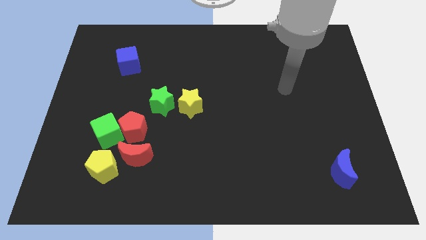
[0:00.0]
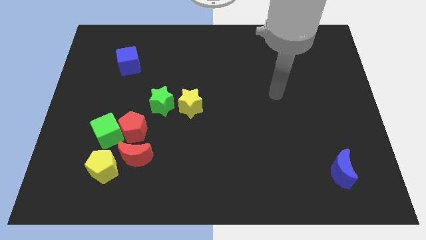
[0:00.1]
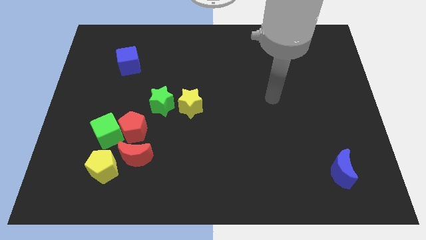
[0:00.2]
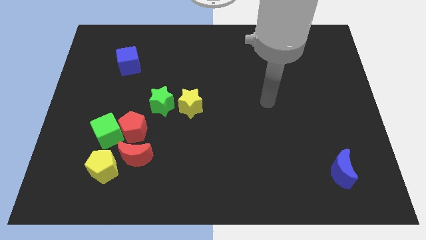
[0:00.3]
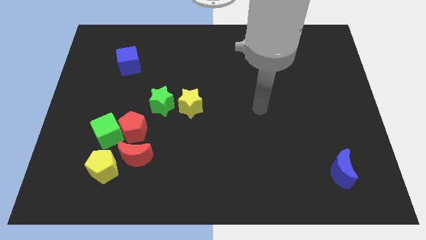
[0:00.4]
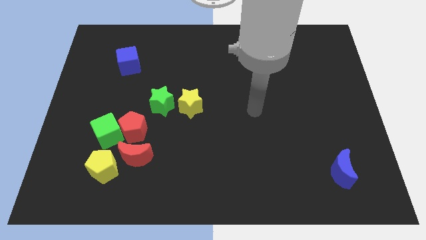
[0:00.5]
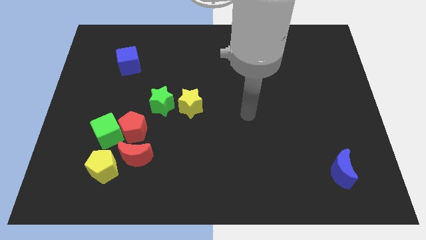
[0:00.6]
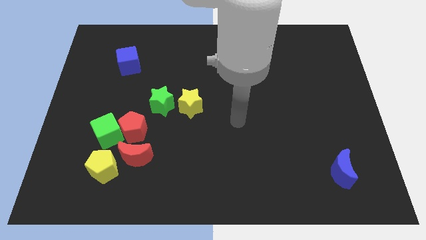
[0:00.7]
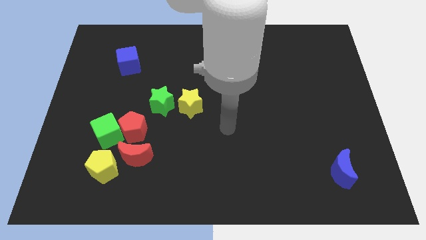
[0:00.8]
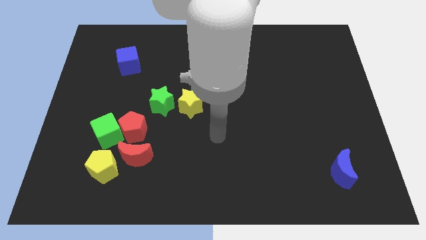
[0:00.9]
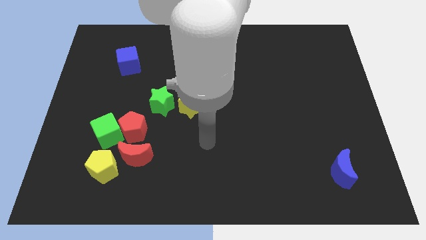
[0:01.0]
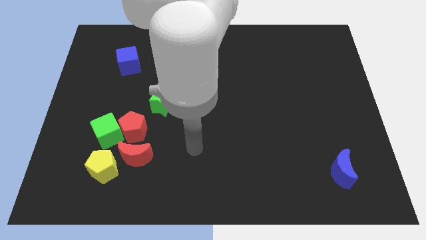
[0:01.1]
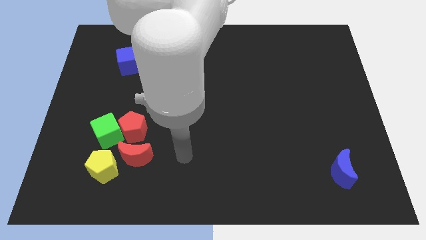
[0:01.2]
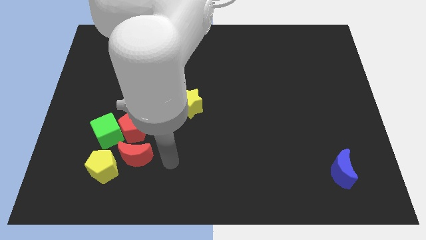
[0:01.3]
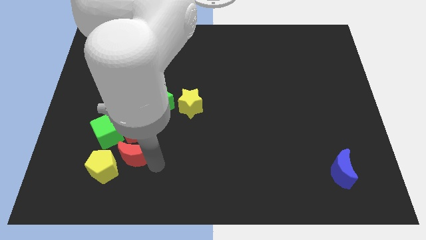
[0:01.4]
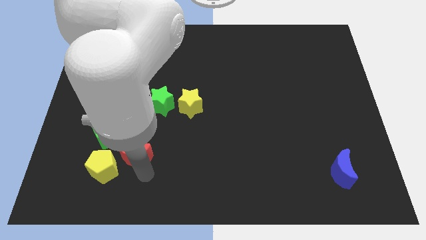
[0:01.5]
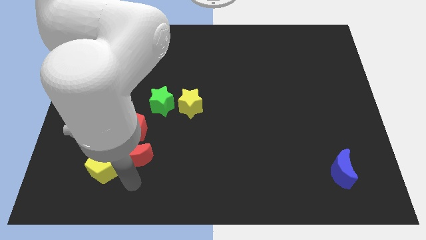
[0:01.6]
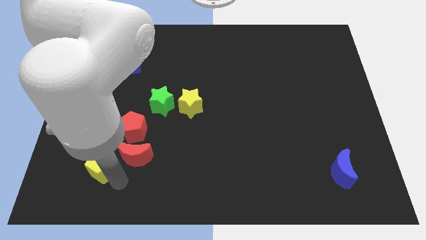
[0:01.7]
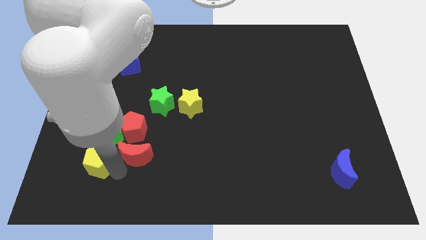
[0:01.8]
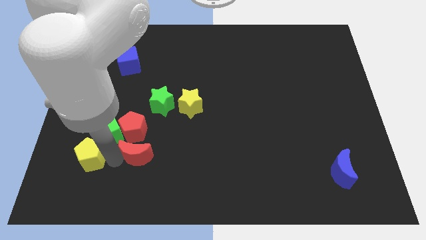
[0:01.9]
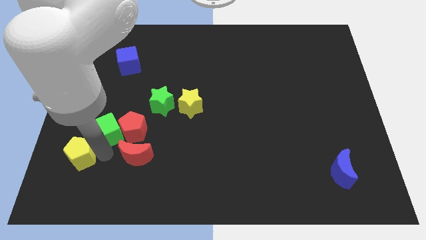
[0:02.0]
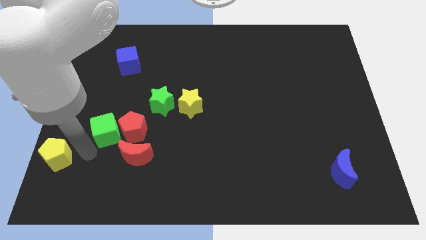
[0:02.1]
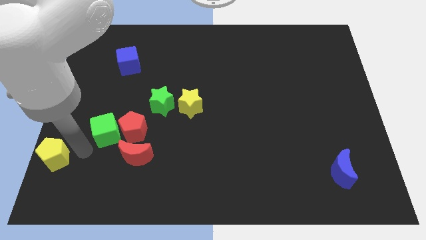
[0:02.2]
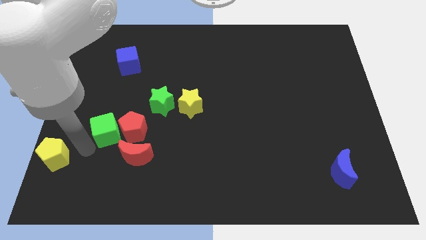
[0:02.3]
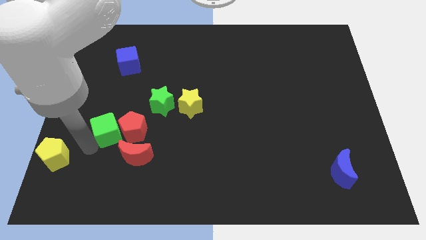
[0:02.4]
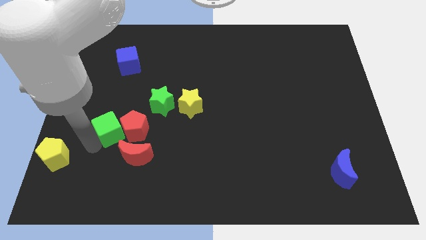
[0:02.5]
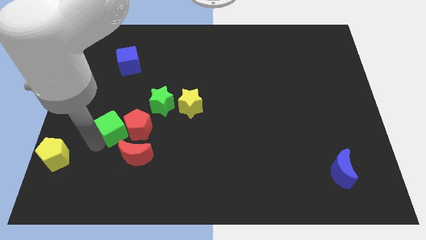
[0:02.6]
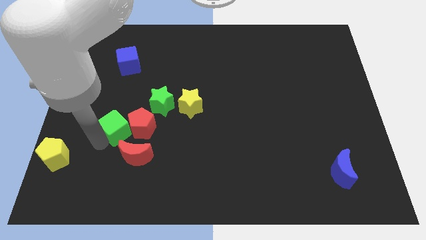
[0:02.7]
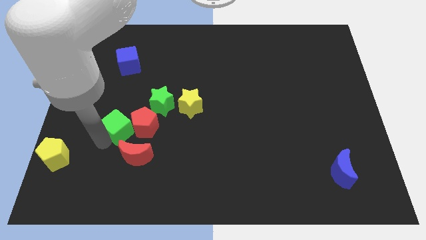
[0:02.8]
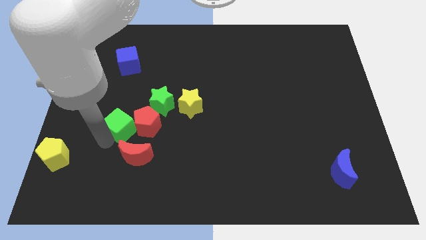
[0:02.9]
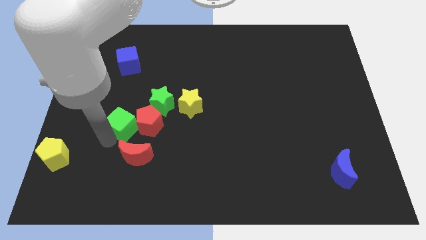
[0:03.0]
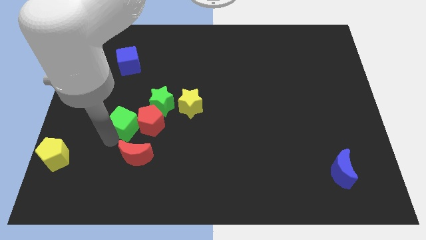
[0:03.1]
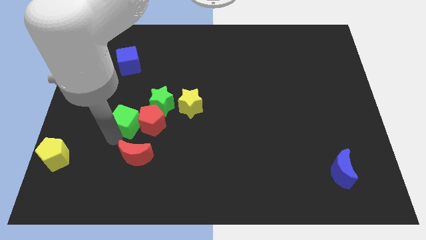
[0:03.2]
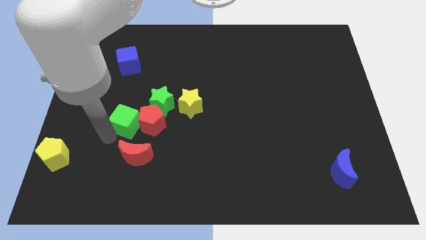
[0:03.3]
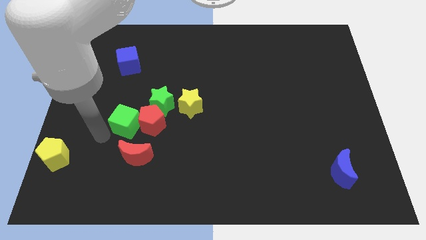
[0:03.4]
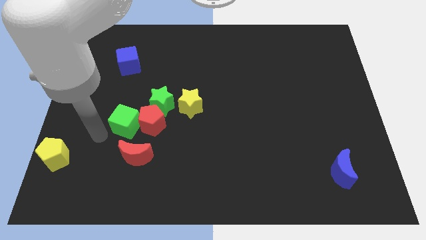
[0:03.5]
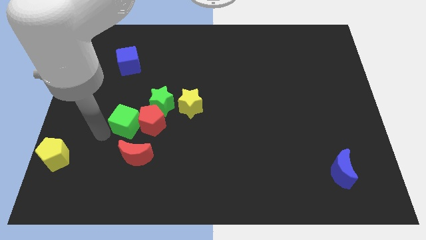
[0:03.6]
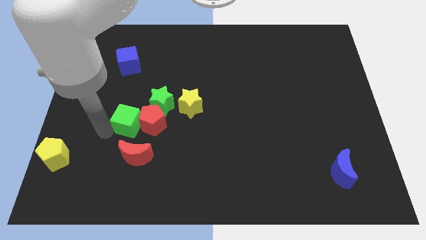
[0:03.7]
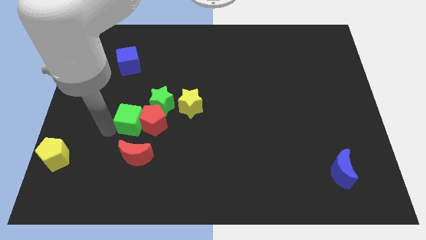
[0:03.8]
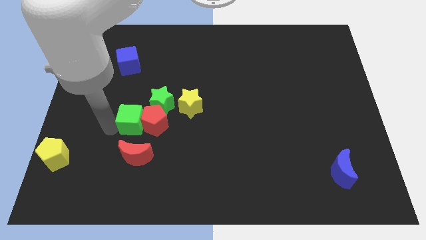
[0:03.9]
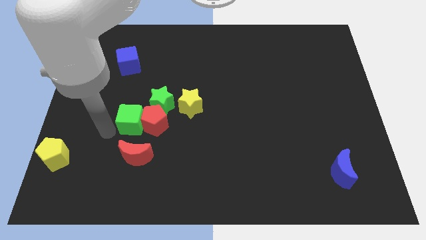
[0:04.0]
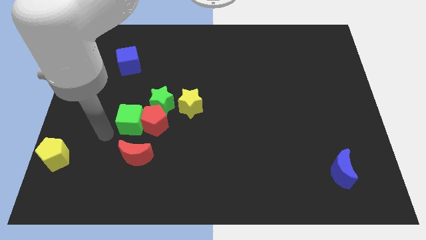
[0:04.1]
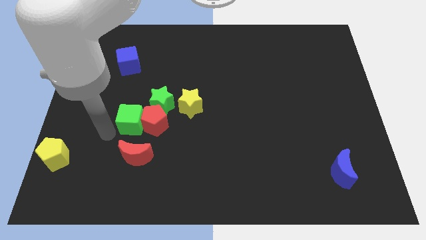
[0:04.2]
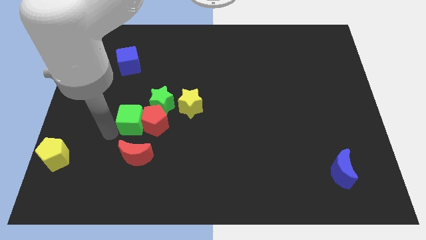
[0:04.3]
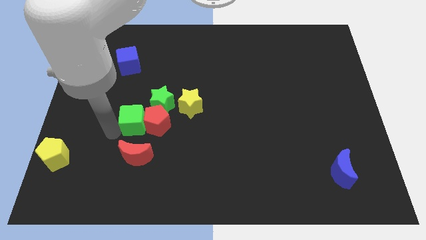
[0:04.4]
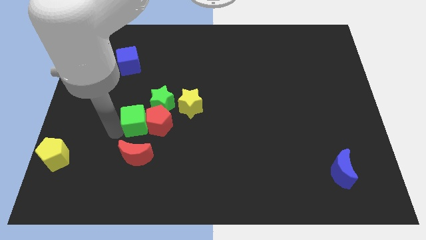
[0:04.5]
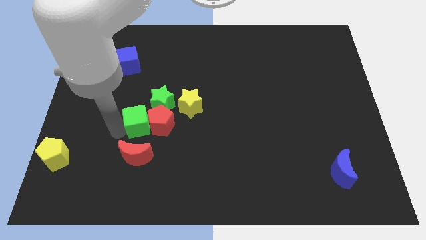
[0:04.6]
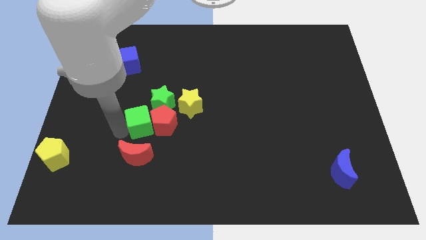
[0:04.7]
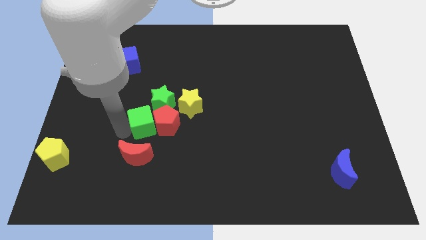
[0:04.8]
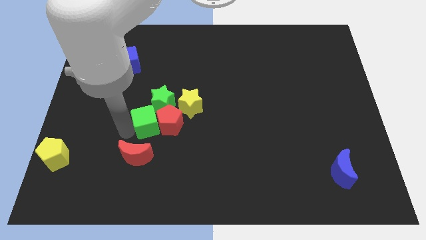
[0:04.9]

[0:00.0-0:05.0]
put the green cube diagonally up and to the right of the red moon

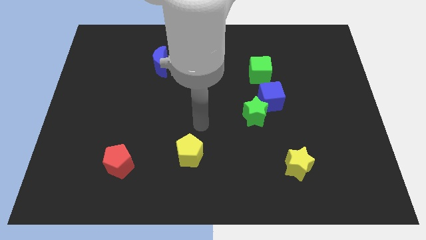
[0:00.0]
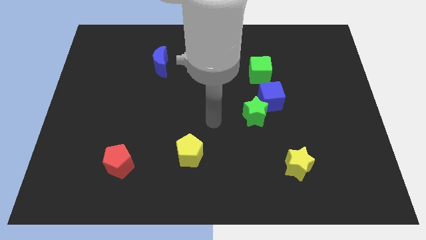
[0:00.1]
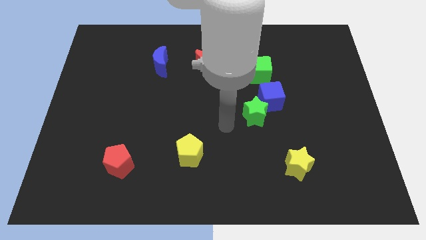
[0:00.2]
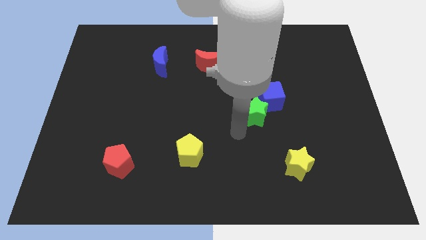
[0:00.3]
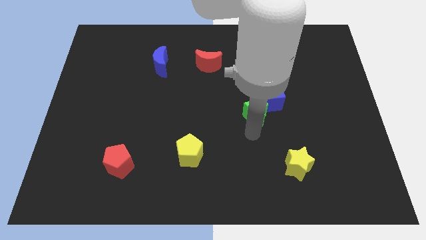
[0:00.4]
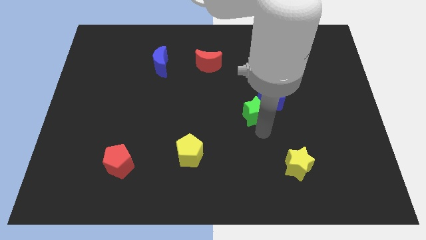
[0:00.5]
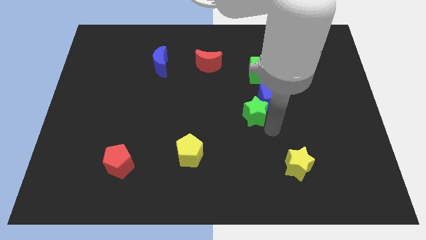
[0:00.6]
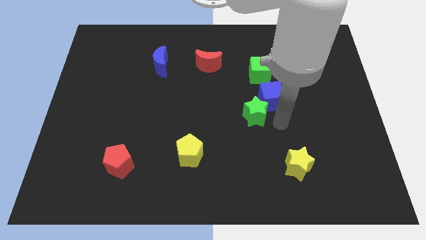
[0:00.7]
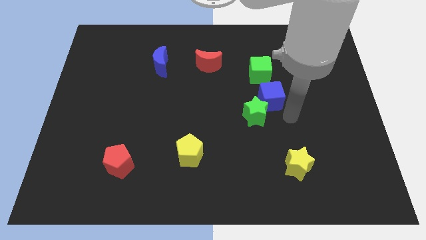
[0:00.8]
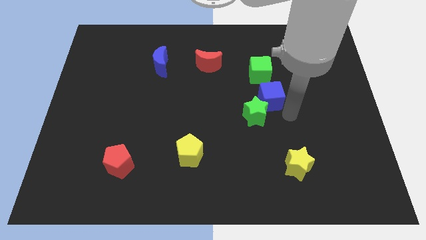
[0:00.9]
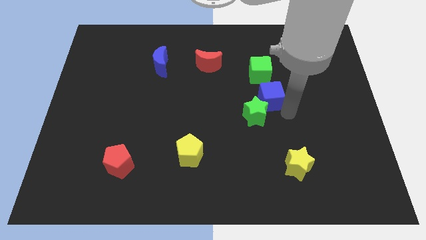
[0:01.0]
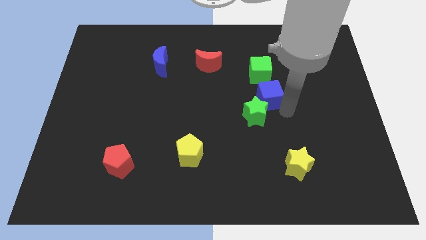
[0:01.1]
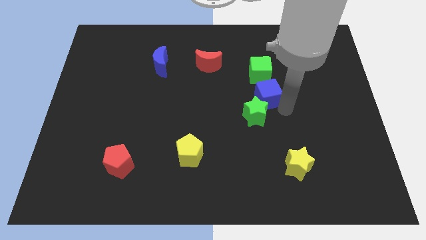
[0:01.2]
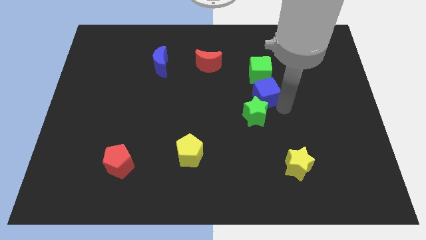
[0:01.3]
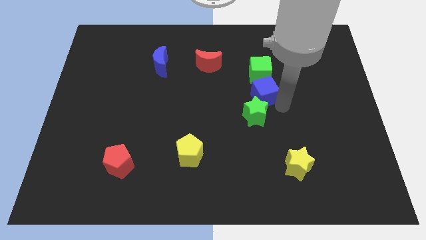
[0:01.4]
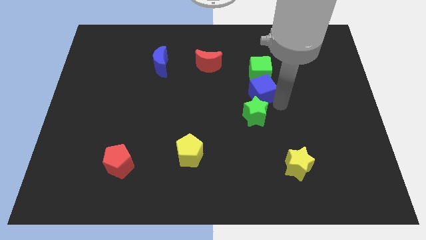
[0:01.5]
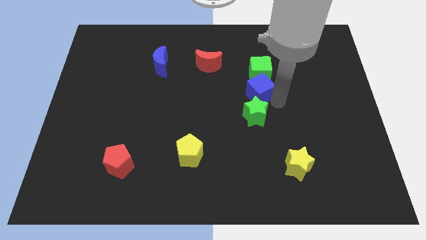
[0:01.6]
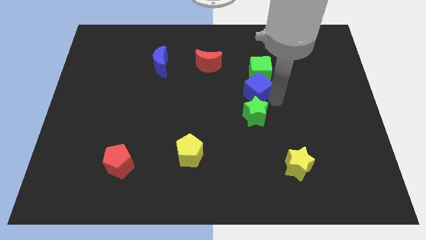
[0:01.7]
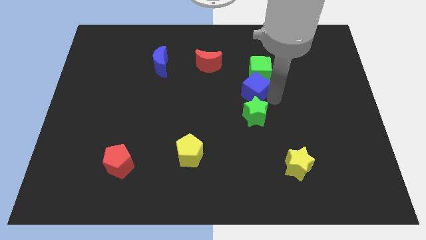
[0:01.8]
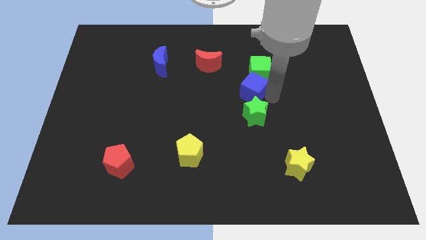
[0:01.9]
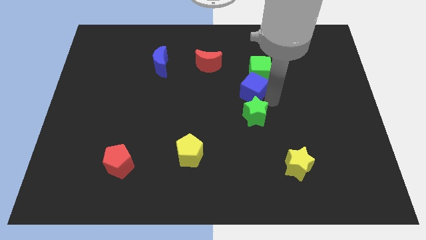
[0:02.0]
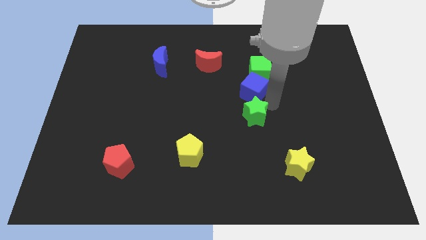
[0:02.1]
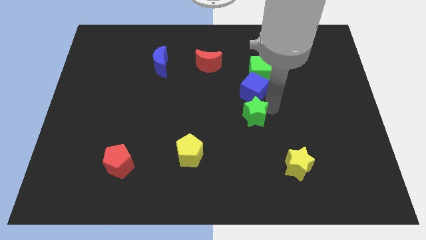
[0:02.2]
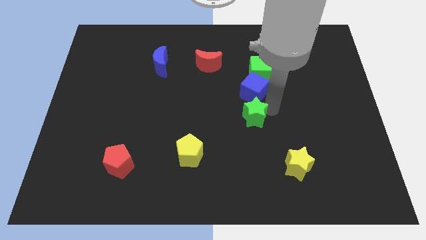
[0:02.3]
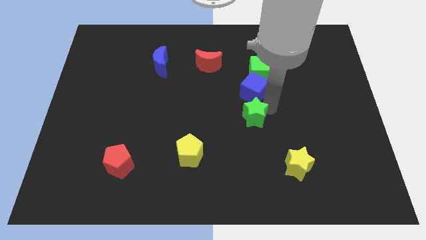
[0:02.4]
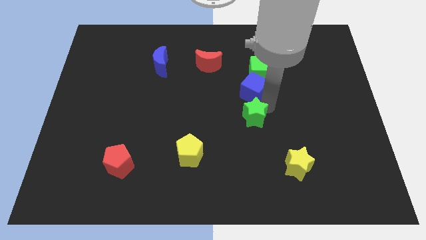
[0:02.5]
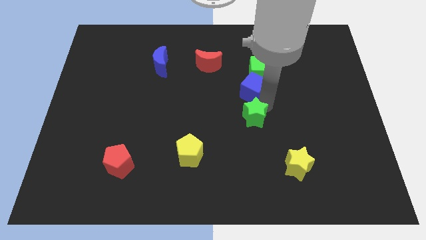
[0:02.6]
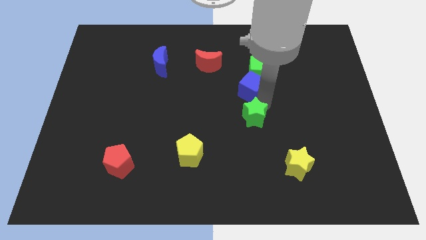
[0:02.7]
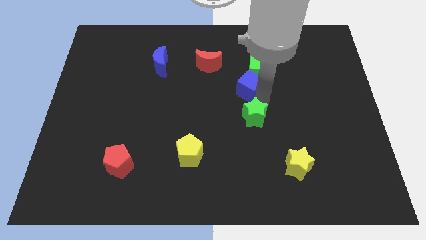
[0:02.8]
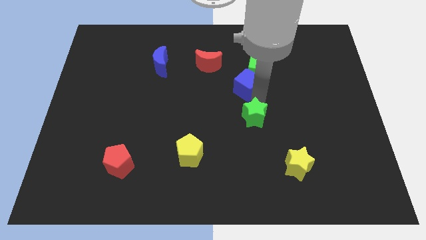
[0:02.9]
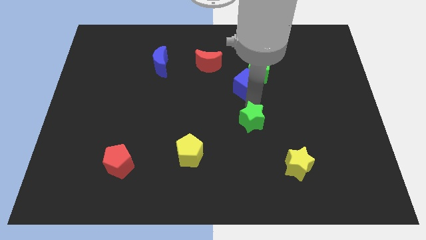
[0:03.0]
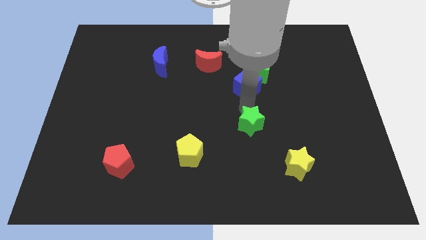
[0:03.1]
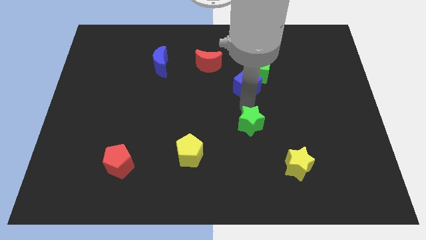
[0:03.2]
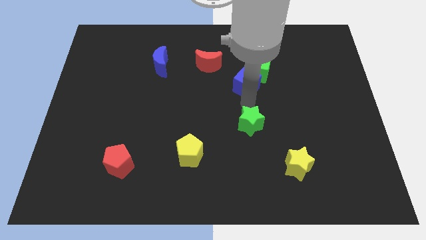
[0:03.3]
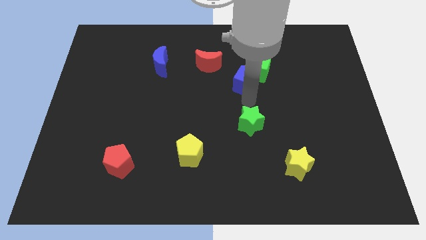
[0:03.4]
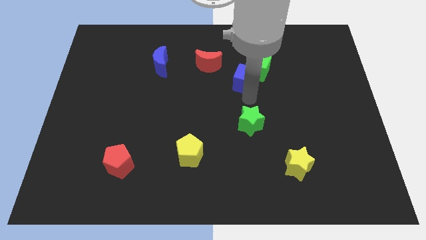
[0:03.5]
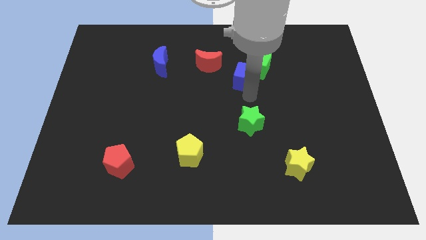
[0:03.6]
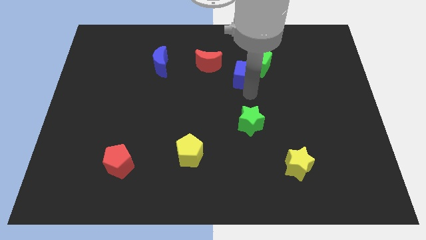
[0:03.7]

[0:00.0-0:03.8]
move the blue cube to the right of the red moon
